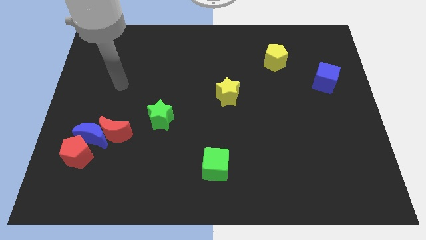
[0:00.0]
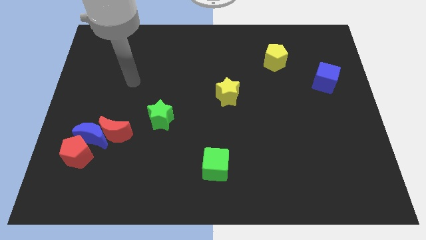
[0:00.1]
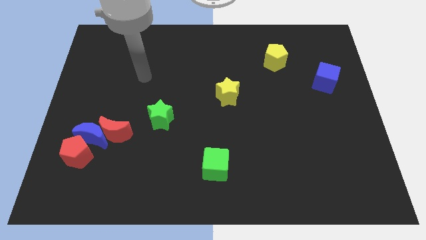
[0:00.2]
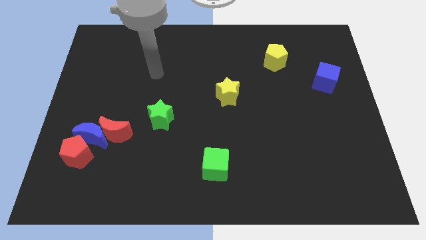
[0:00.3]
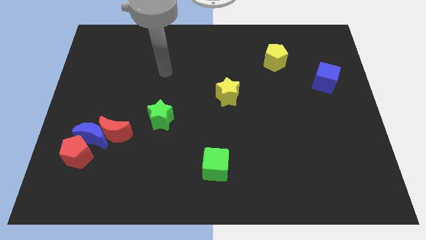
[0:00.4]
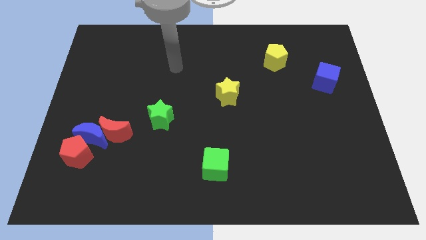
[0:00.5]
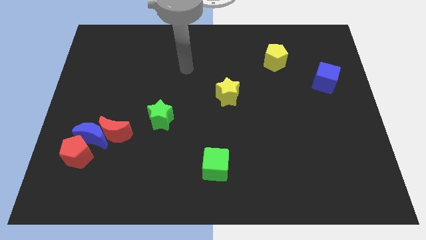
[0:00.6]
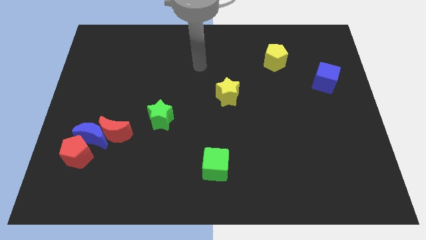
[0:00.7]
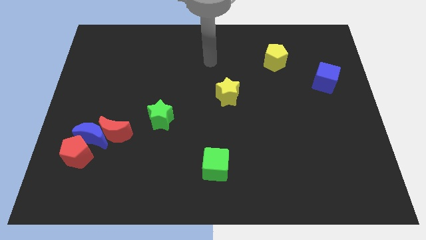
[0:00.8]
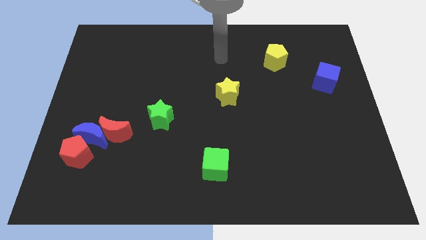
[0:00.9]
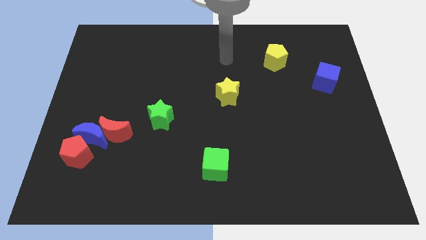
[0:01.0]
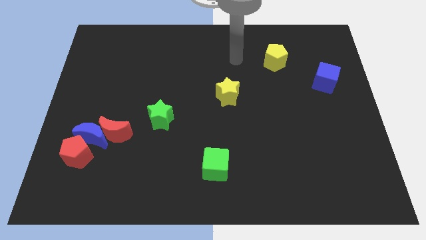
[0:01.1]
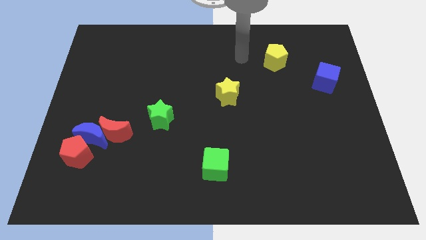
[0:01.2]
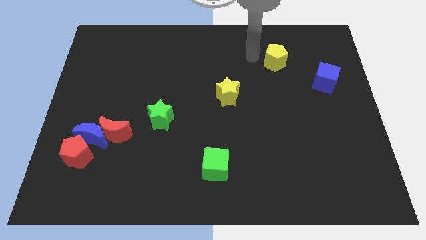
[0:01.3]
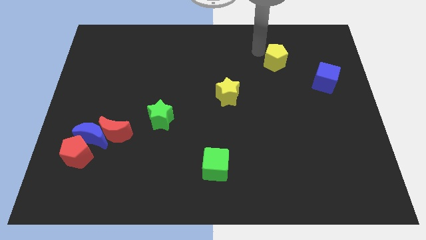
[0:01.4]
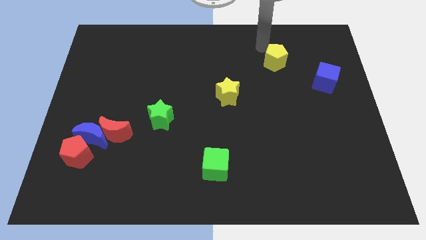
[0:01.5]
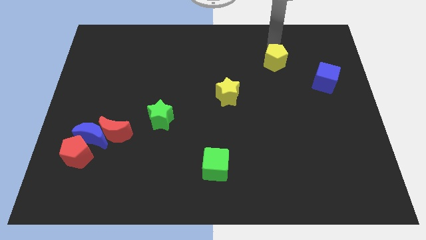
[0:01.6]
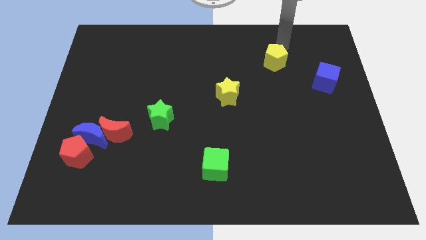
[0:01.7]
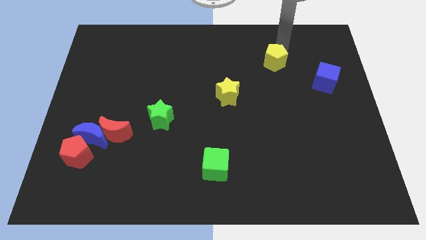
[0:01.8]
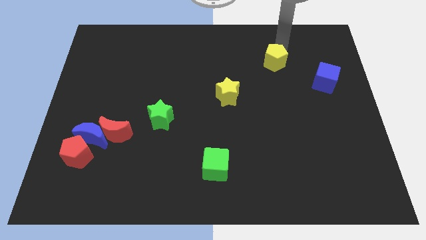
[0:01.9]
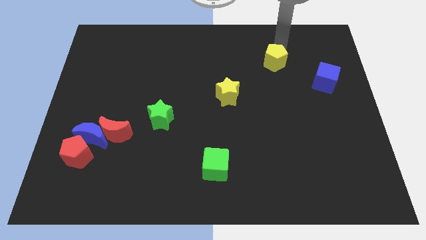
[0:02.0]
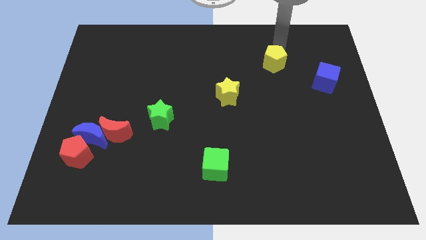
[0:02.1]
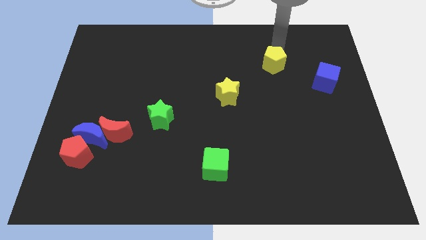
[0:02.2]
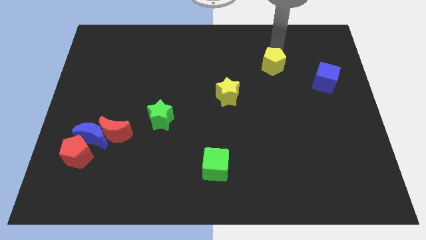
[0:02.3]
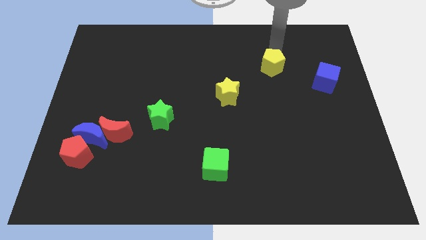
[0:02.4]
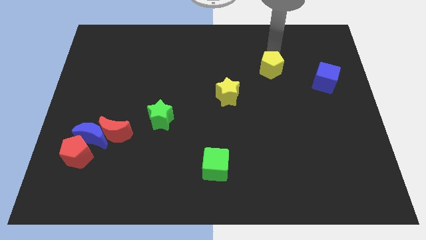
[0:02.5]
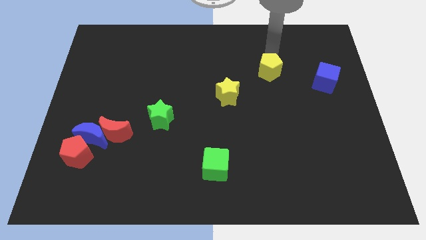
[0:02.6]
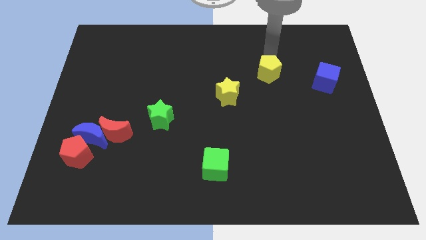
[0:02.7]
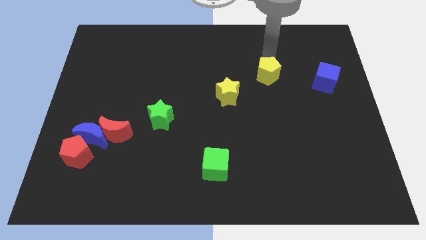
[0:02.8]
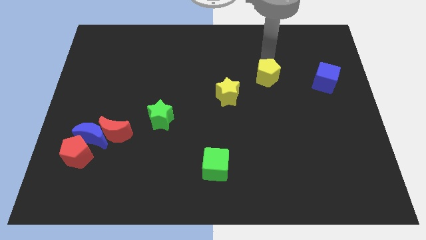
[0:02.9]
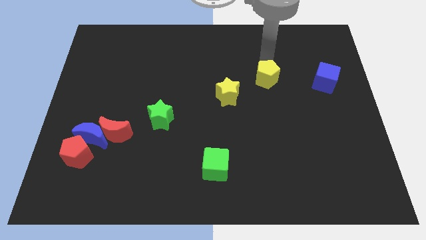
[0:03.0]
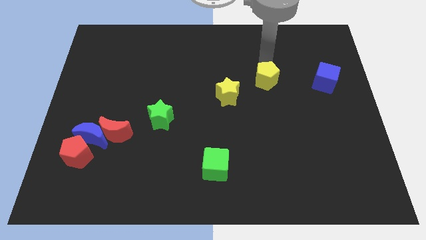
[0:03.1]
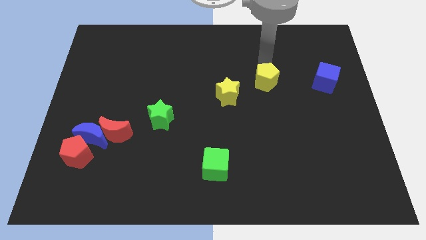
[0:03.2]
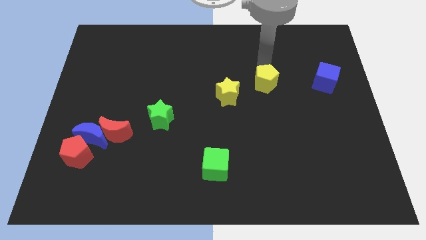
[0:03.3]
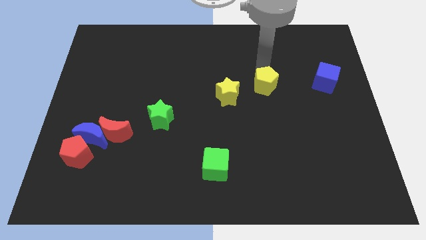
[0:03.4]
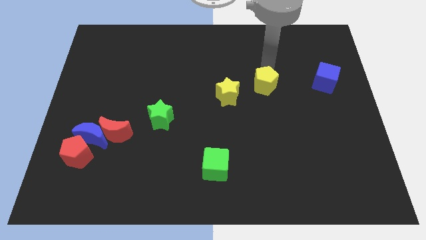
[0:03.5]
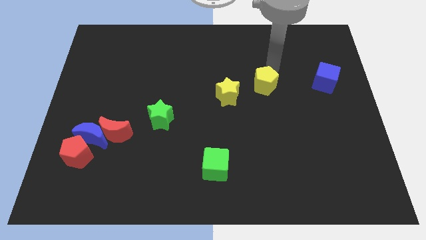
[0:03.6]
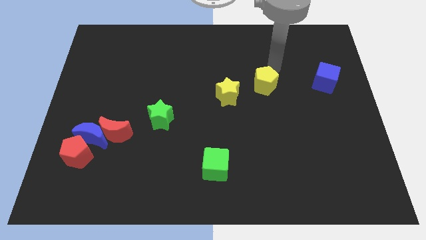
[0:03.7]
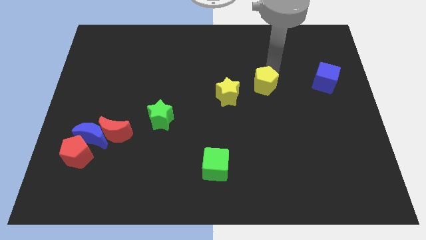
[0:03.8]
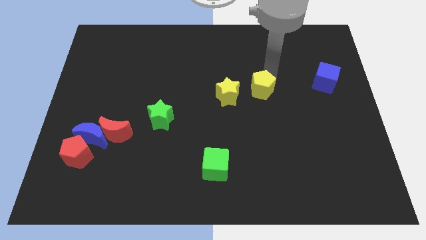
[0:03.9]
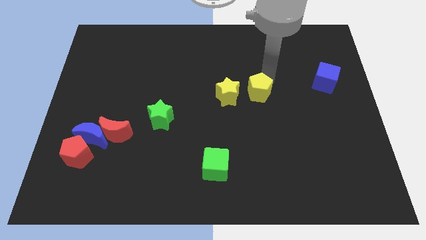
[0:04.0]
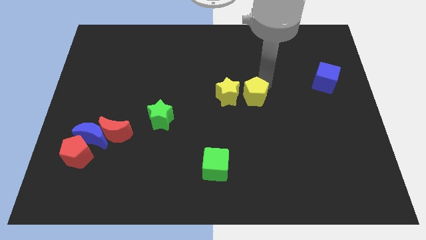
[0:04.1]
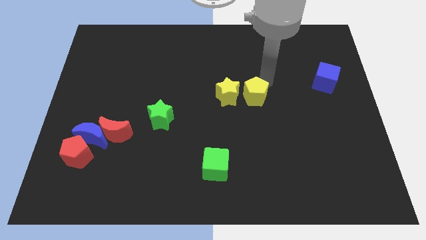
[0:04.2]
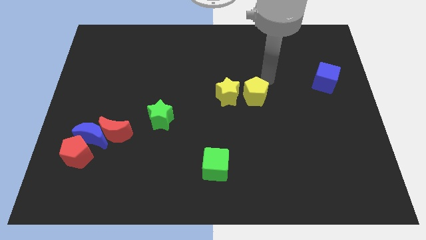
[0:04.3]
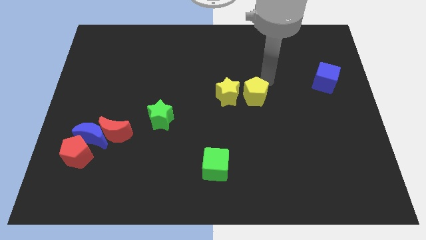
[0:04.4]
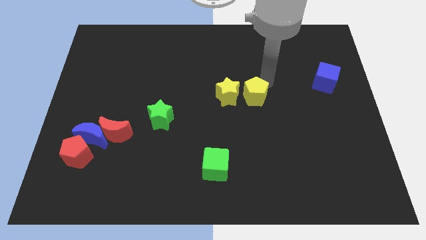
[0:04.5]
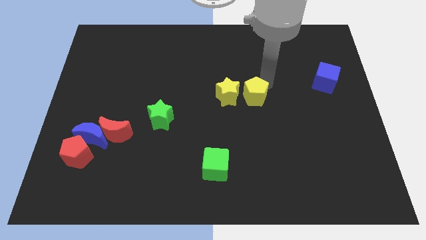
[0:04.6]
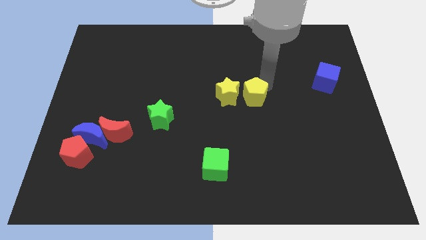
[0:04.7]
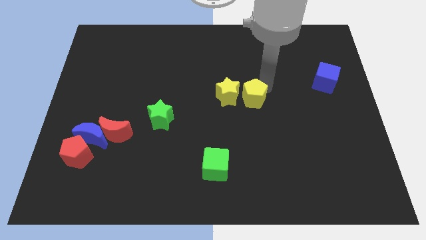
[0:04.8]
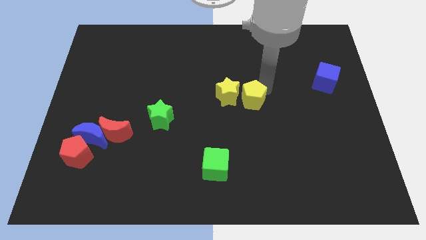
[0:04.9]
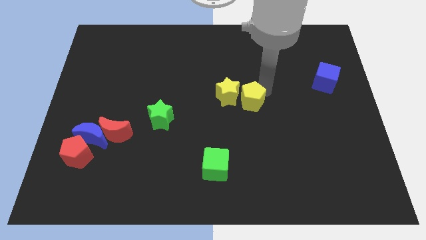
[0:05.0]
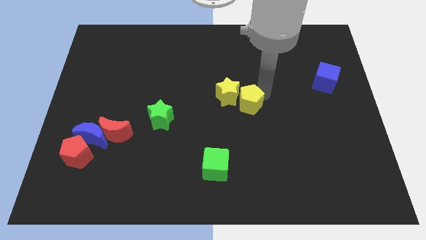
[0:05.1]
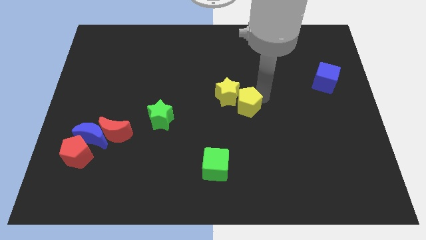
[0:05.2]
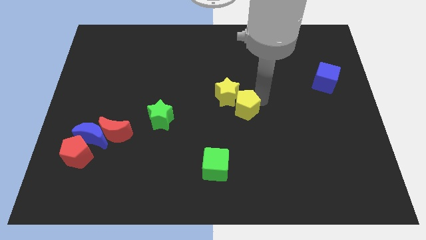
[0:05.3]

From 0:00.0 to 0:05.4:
slide the yellow pentagon to the bottom side of the yellow star

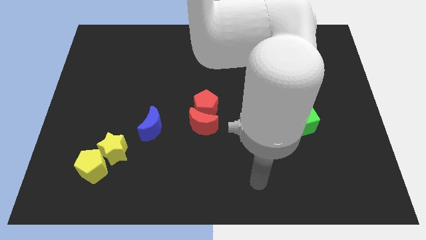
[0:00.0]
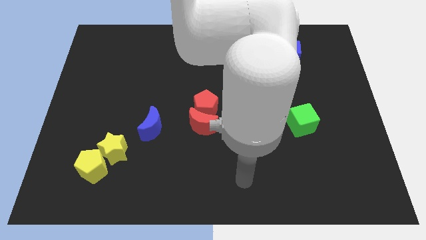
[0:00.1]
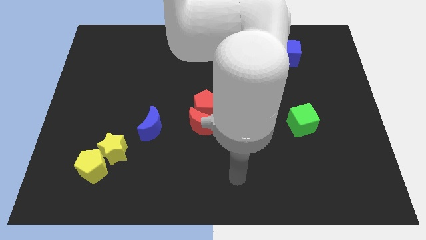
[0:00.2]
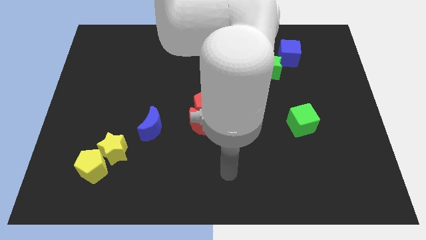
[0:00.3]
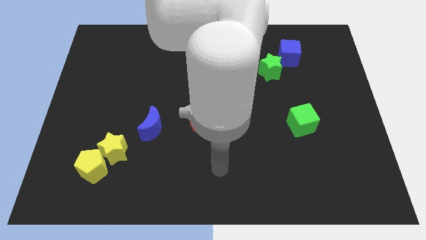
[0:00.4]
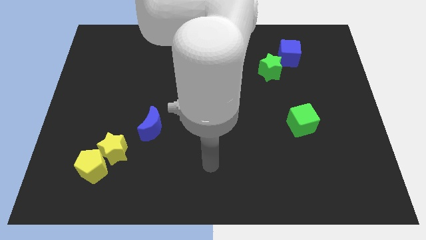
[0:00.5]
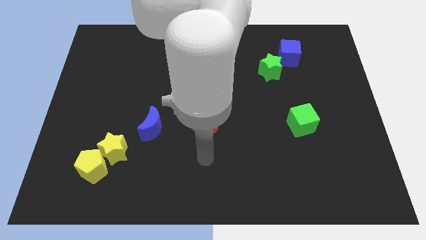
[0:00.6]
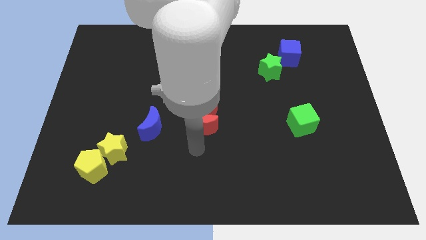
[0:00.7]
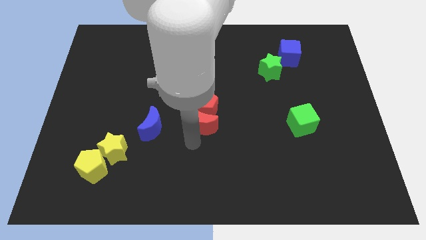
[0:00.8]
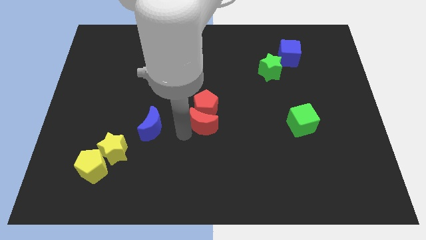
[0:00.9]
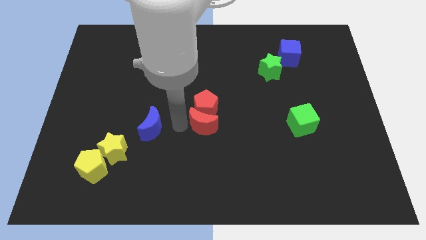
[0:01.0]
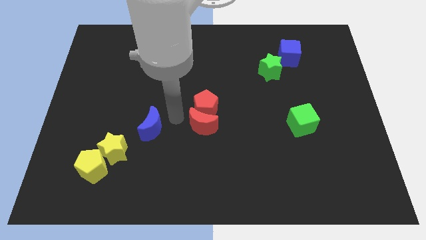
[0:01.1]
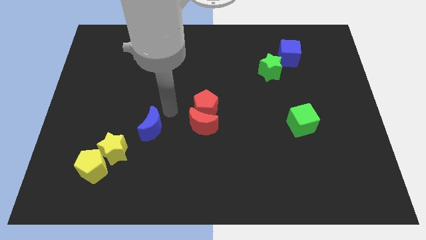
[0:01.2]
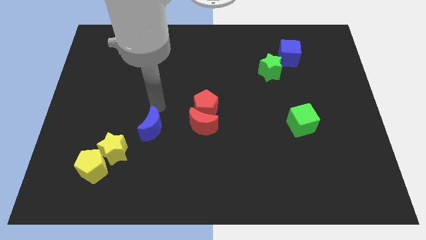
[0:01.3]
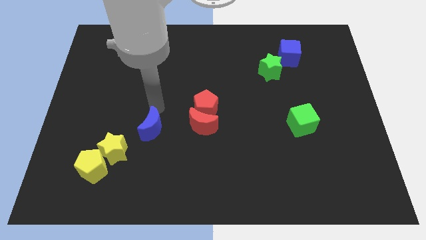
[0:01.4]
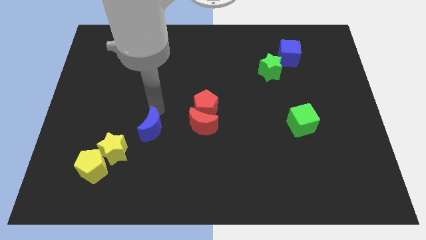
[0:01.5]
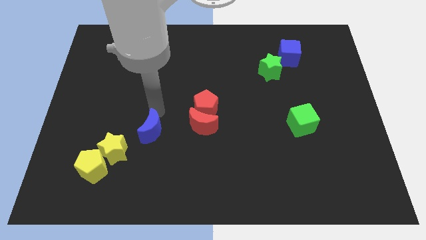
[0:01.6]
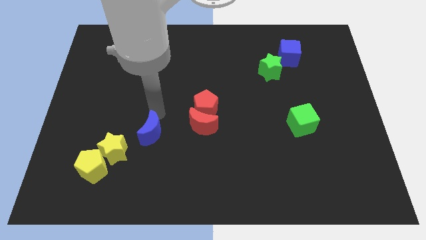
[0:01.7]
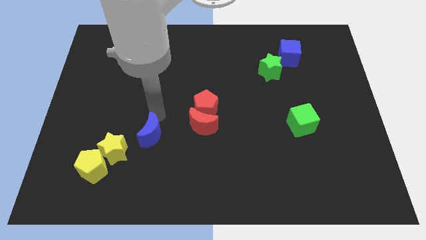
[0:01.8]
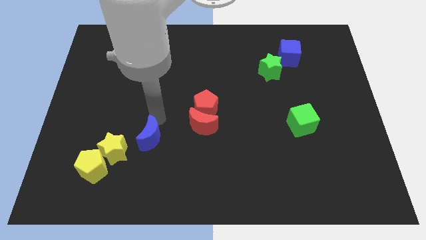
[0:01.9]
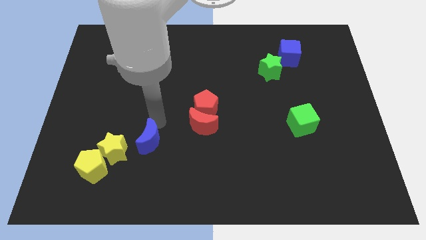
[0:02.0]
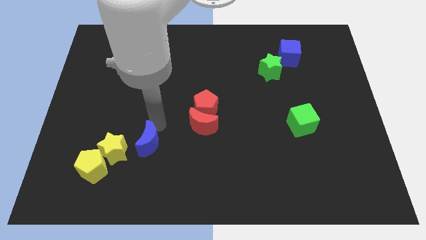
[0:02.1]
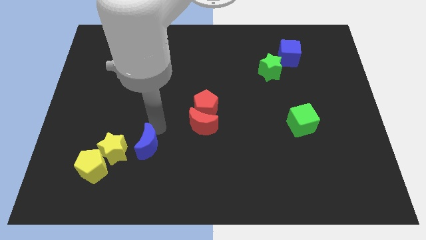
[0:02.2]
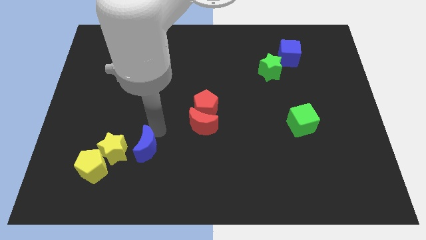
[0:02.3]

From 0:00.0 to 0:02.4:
push the blue moon to the right of the yellow pentagon
